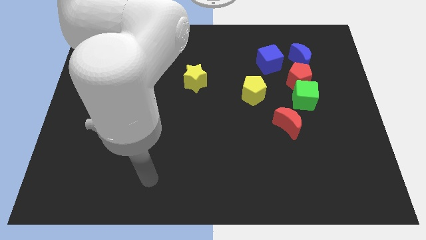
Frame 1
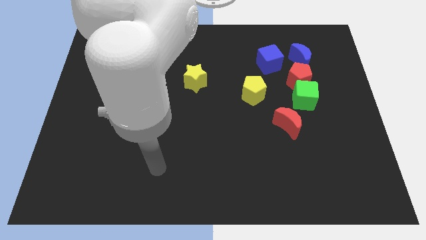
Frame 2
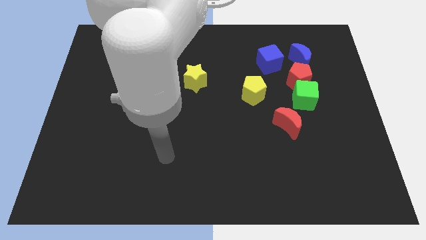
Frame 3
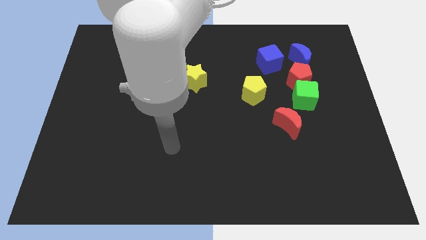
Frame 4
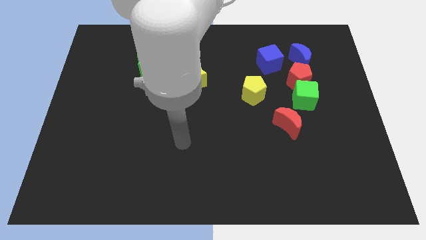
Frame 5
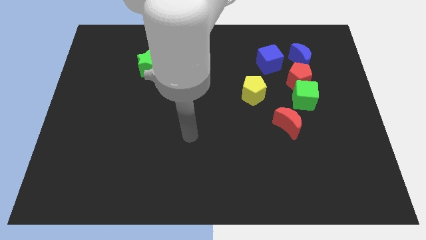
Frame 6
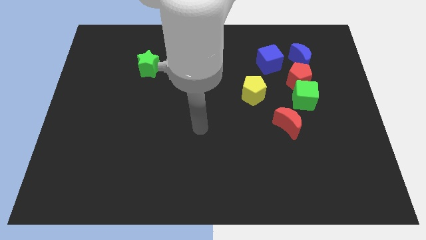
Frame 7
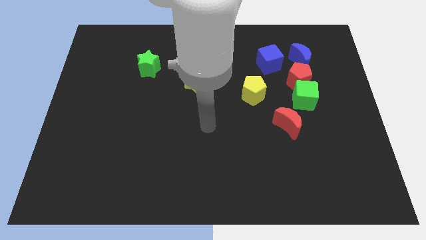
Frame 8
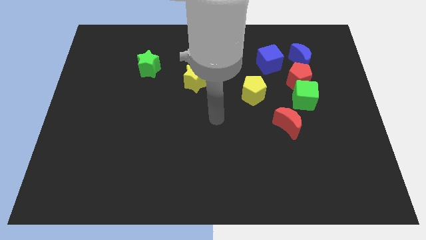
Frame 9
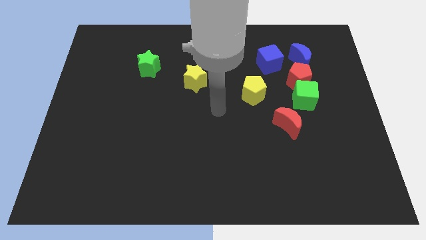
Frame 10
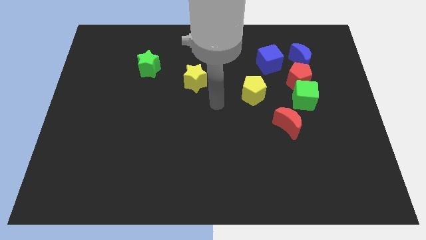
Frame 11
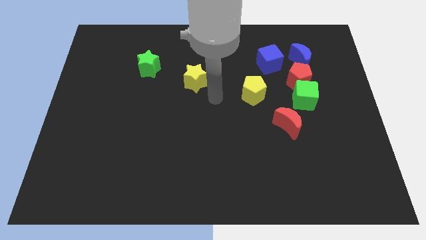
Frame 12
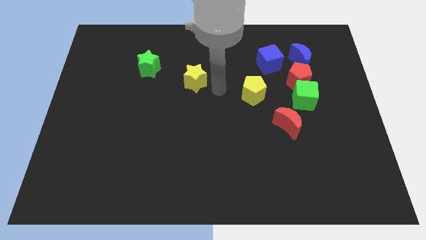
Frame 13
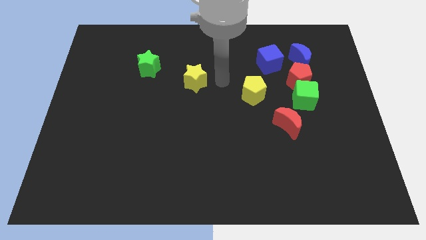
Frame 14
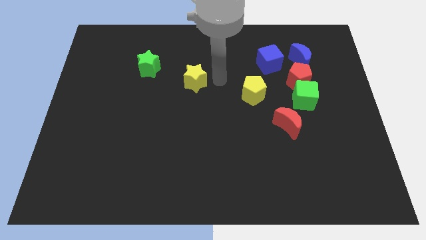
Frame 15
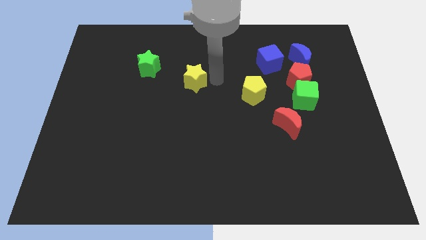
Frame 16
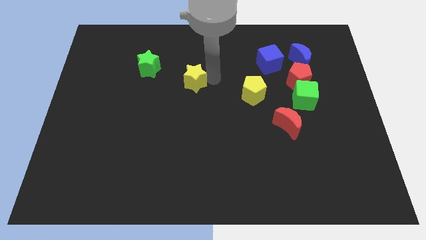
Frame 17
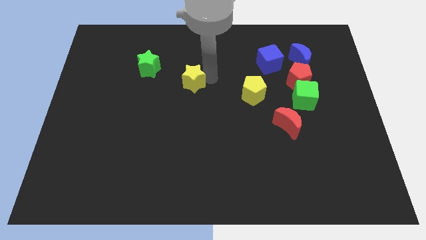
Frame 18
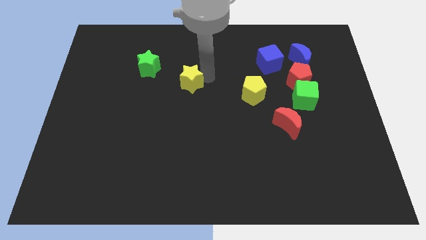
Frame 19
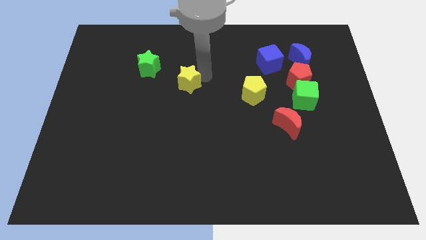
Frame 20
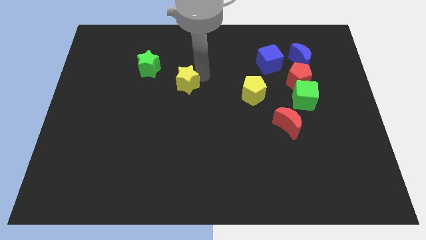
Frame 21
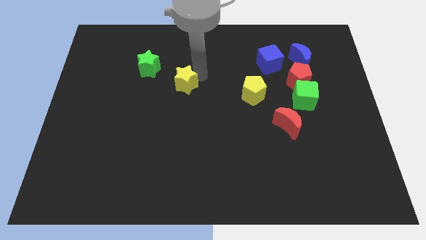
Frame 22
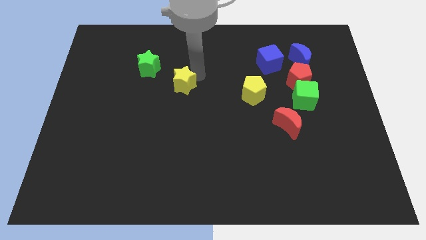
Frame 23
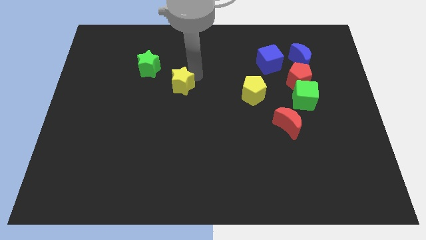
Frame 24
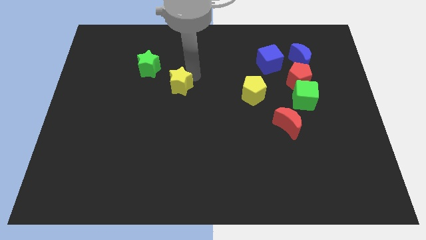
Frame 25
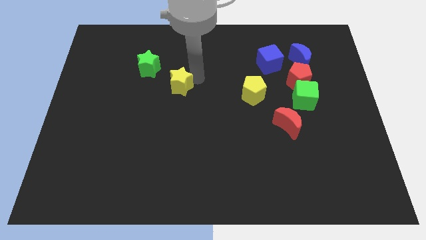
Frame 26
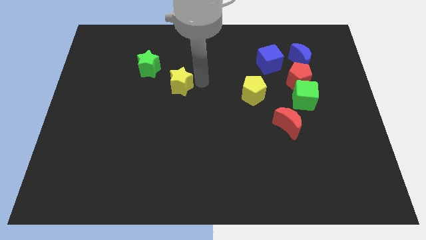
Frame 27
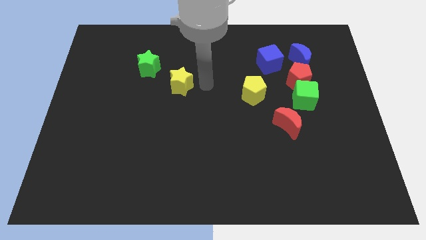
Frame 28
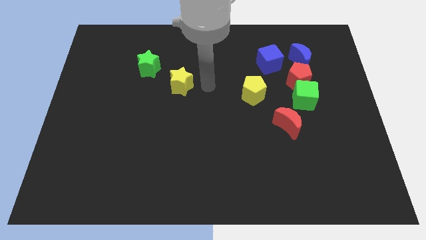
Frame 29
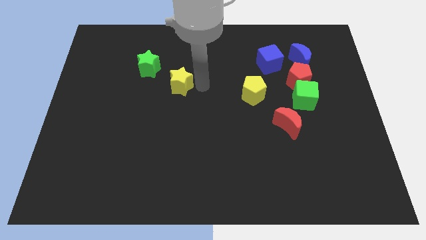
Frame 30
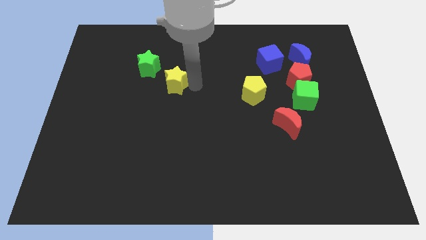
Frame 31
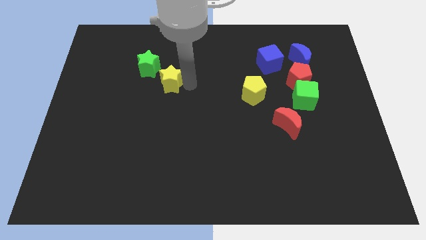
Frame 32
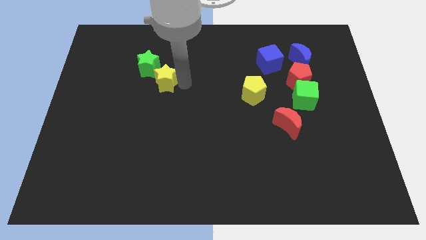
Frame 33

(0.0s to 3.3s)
slightly slide the yellow star left

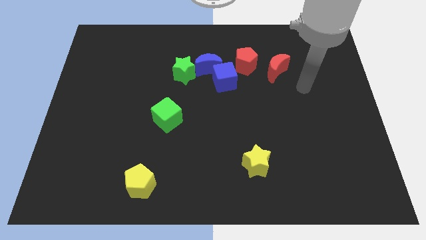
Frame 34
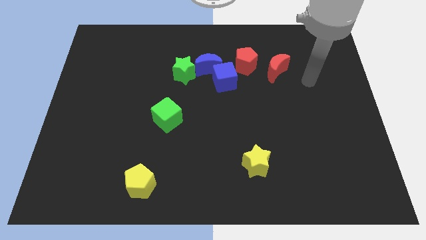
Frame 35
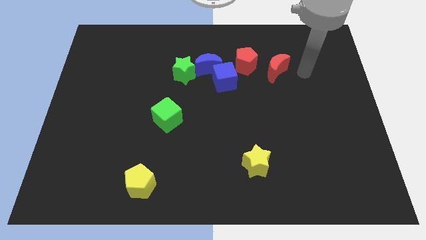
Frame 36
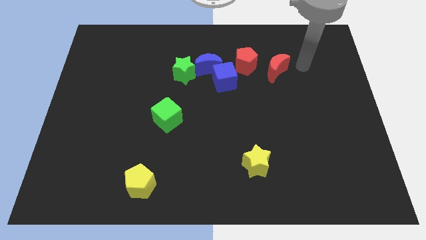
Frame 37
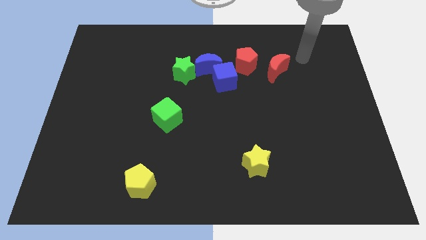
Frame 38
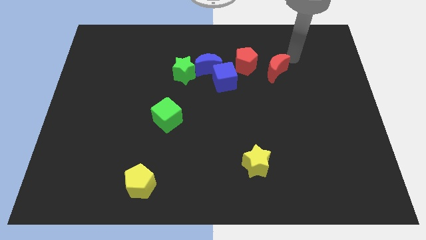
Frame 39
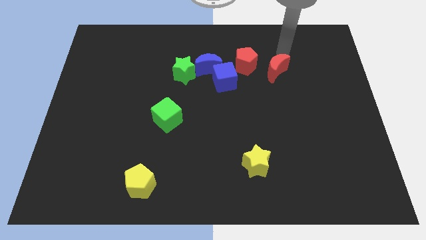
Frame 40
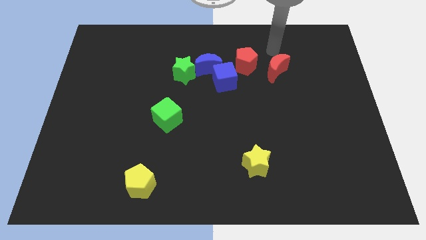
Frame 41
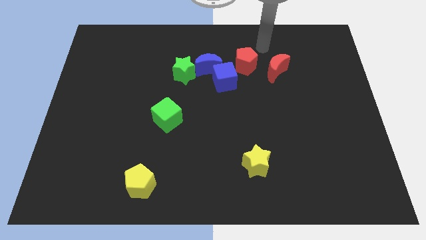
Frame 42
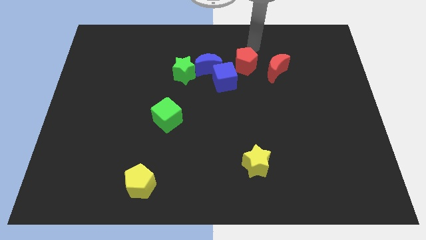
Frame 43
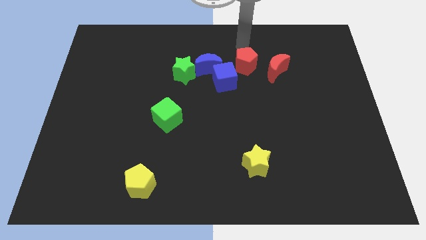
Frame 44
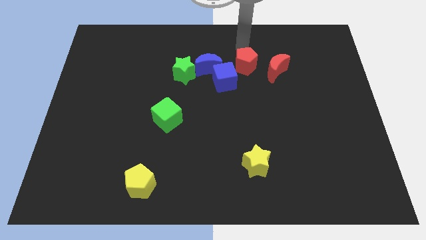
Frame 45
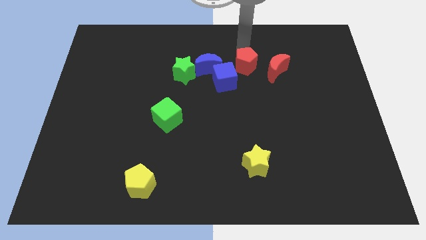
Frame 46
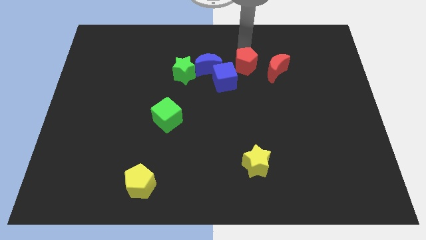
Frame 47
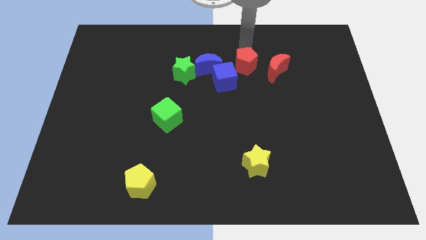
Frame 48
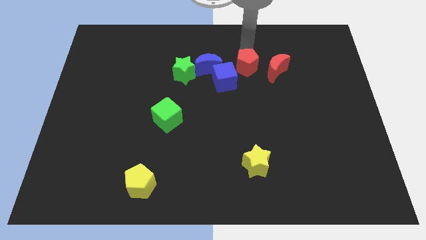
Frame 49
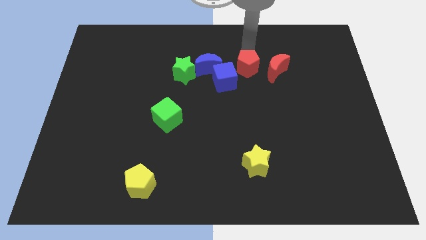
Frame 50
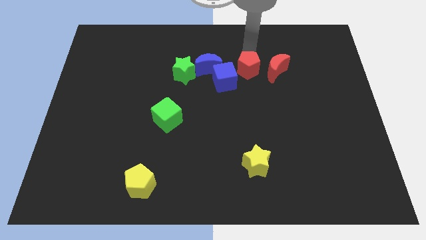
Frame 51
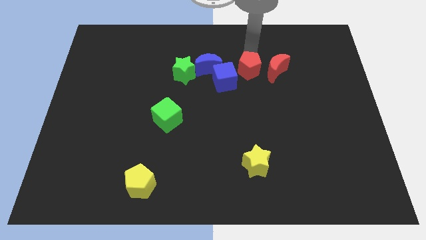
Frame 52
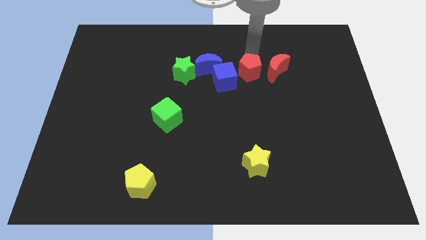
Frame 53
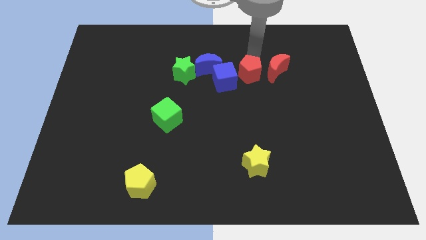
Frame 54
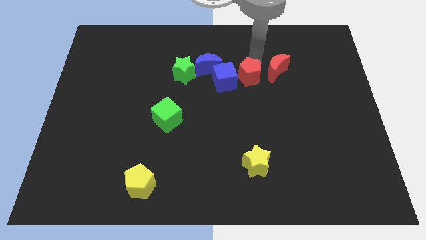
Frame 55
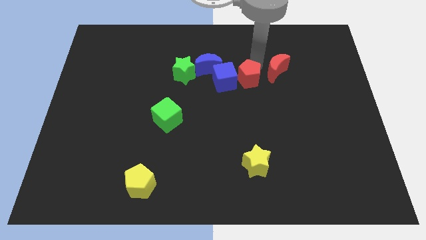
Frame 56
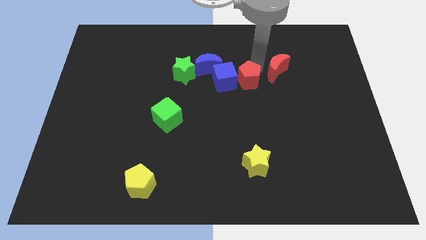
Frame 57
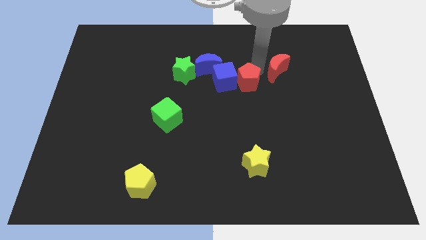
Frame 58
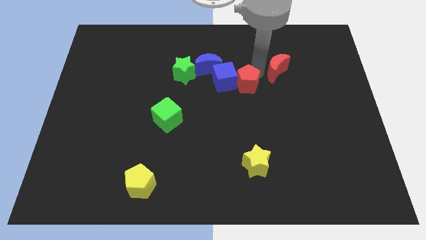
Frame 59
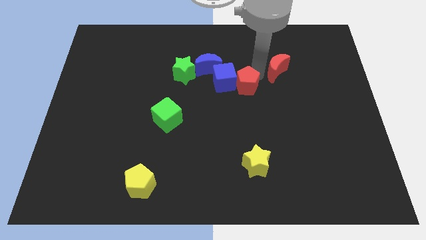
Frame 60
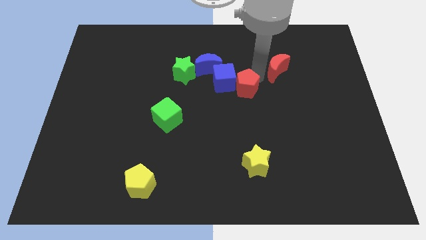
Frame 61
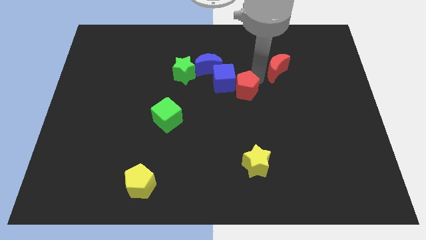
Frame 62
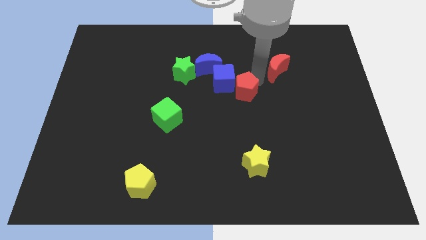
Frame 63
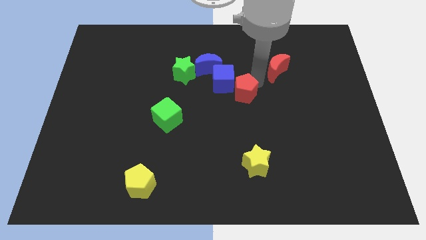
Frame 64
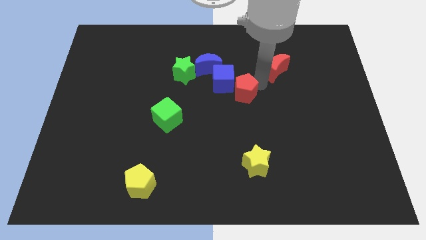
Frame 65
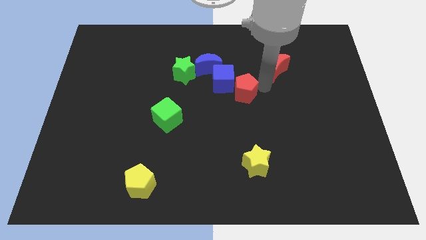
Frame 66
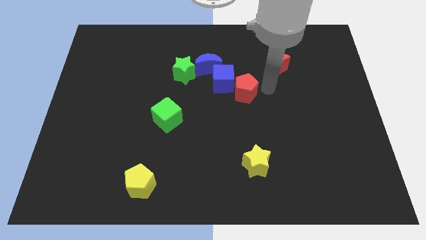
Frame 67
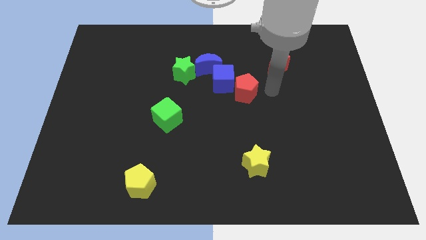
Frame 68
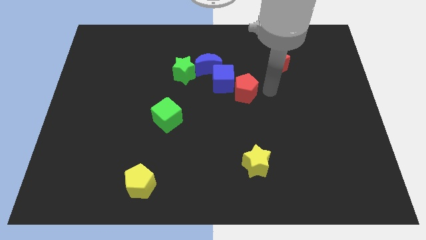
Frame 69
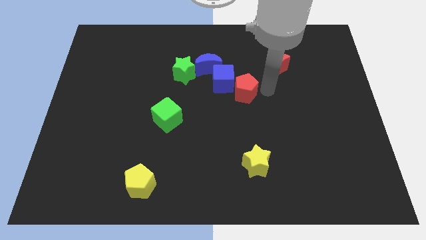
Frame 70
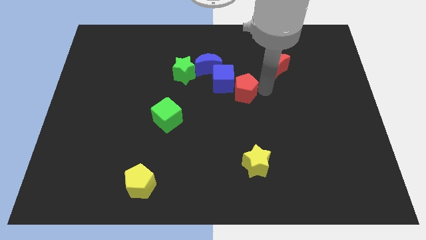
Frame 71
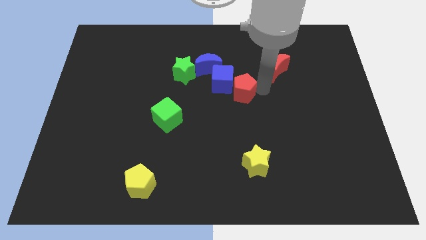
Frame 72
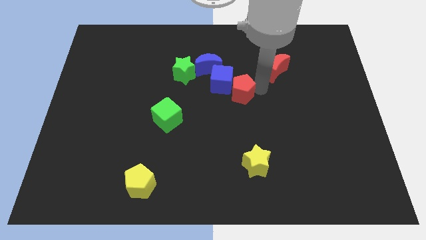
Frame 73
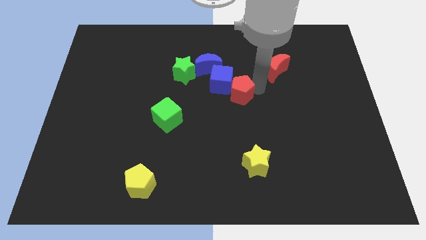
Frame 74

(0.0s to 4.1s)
slide the red pentagon somewhat down and to the left

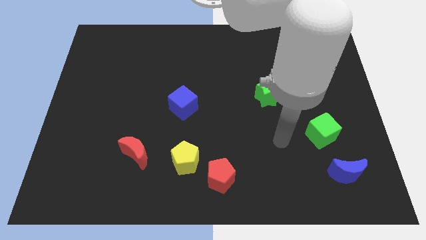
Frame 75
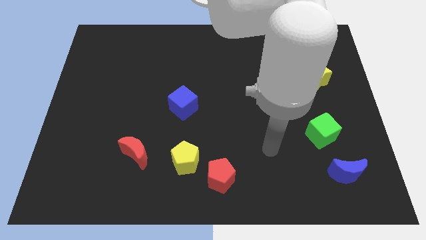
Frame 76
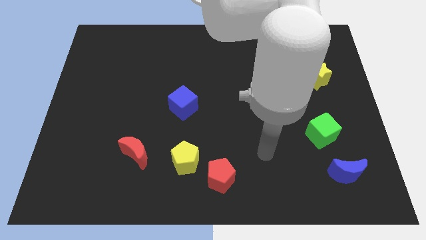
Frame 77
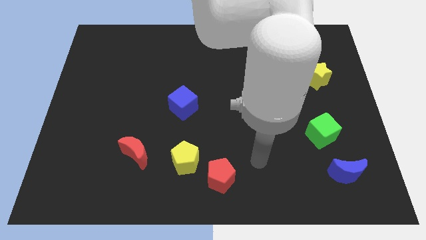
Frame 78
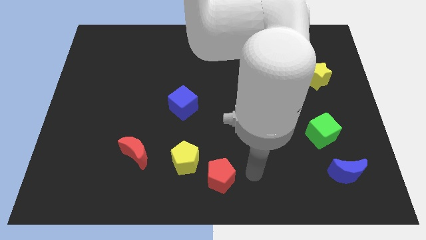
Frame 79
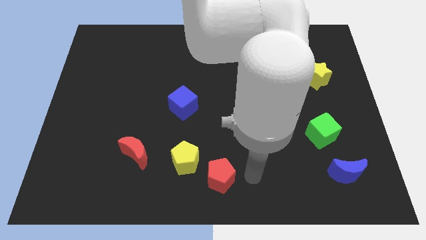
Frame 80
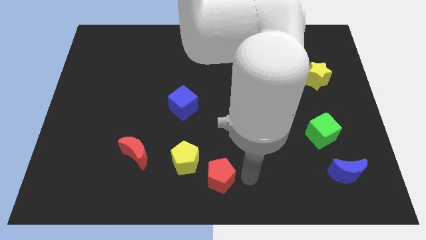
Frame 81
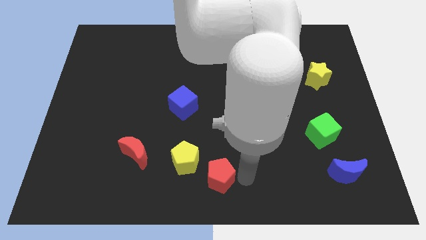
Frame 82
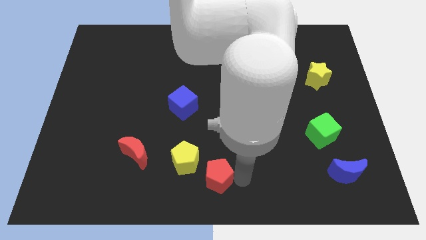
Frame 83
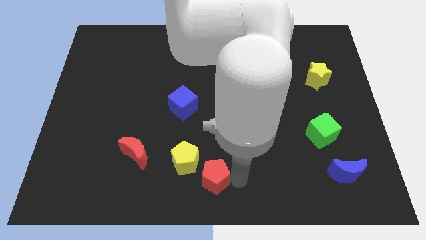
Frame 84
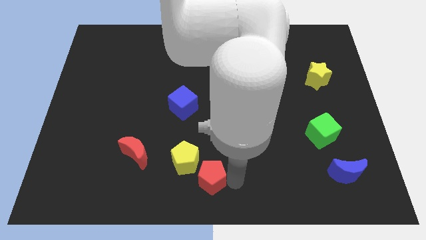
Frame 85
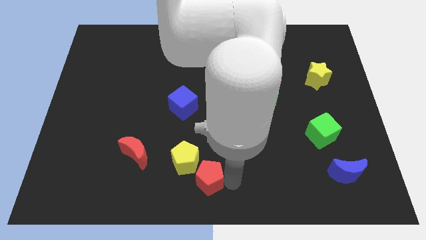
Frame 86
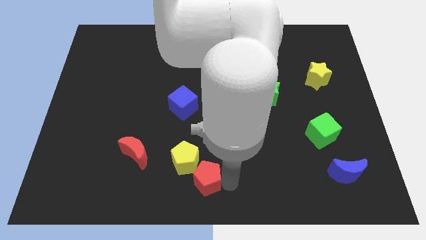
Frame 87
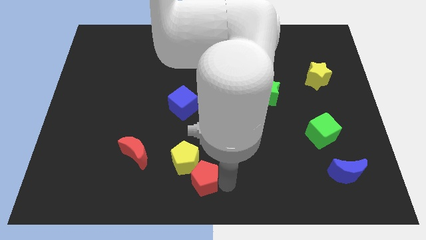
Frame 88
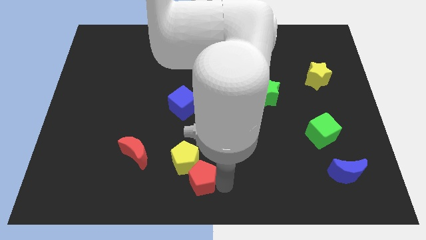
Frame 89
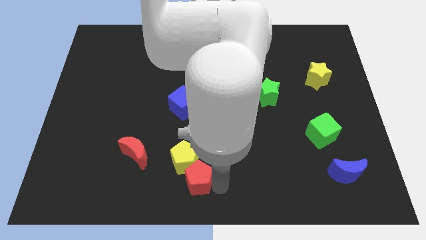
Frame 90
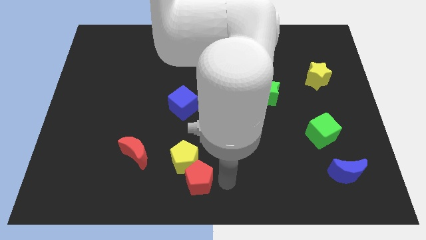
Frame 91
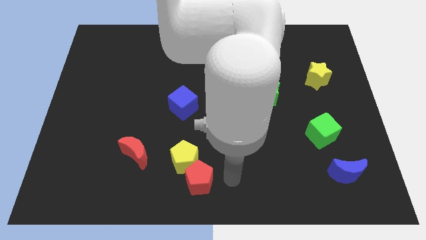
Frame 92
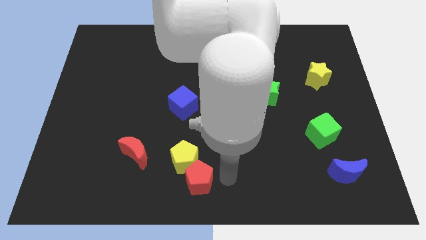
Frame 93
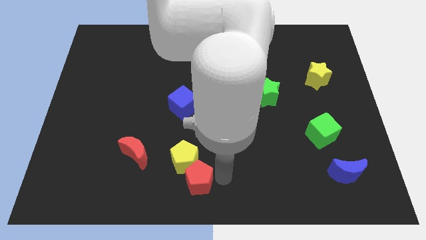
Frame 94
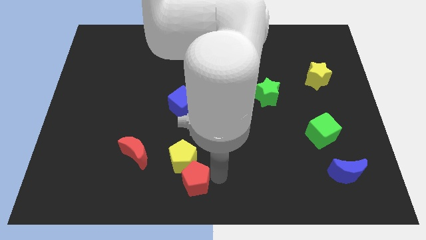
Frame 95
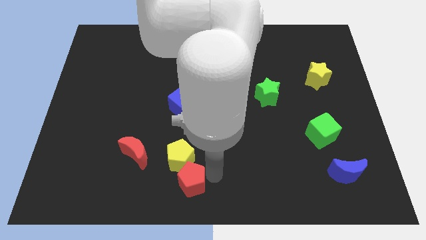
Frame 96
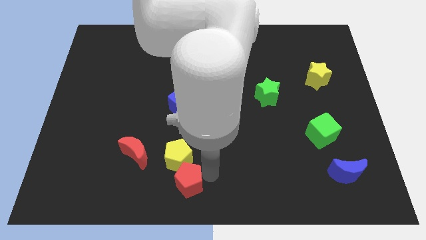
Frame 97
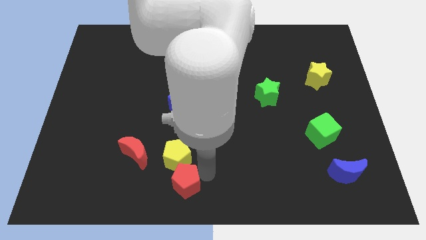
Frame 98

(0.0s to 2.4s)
push the red pentagon to the left slightly
